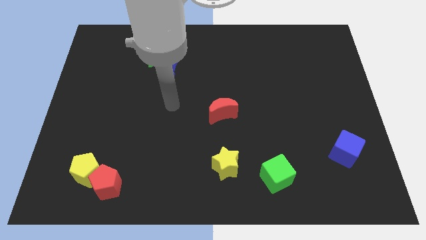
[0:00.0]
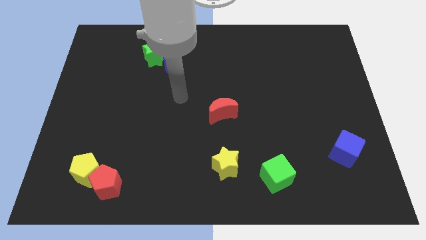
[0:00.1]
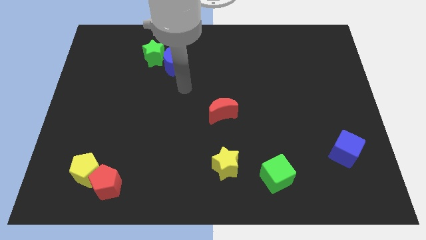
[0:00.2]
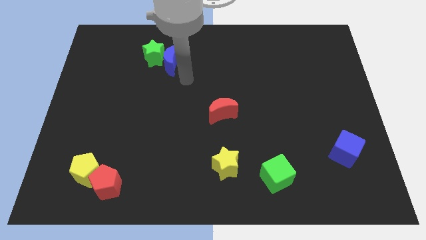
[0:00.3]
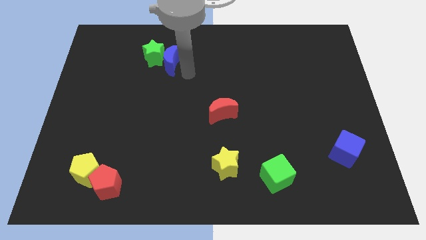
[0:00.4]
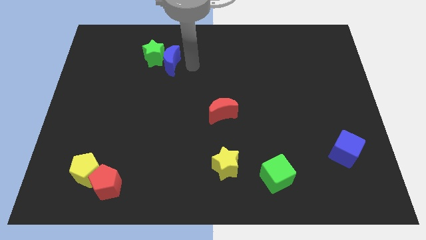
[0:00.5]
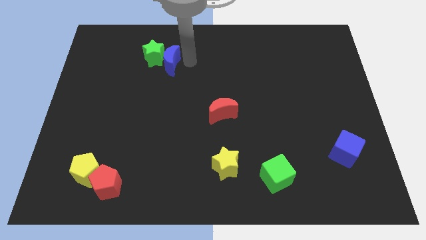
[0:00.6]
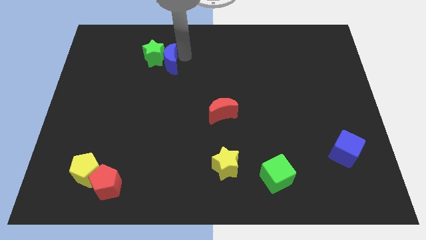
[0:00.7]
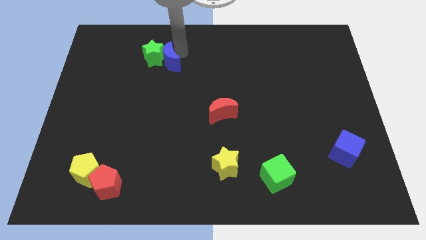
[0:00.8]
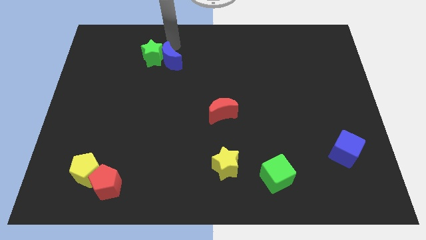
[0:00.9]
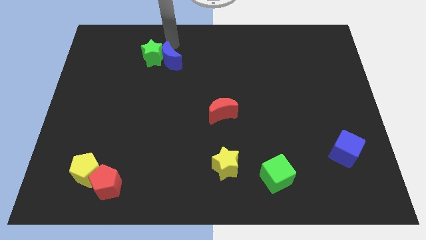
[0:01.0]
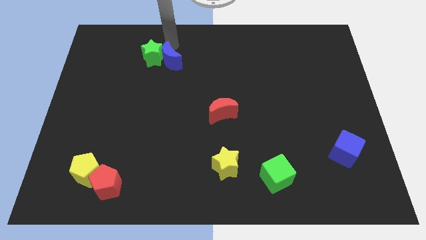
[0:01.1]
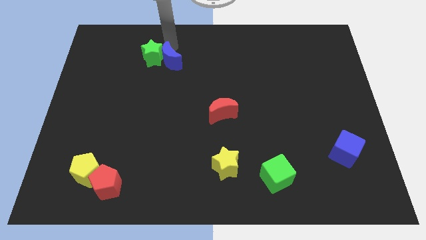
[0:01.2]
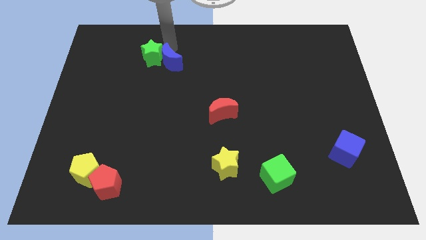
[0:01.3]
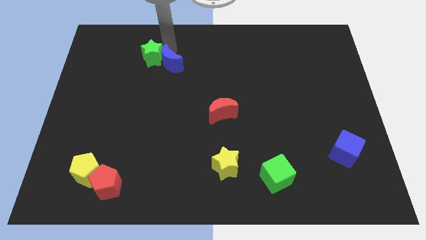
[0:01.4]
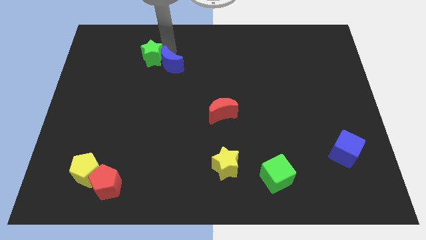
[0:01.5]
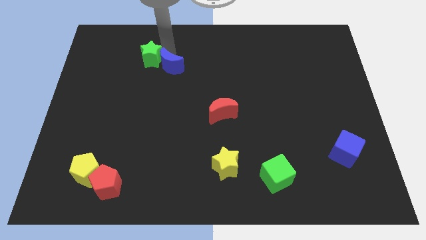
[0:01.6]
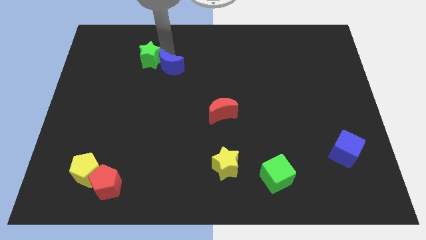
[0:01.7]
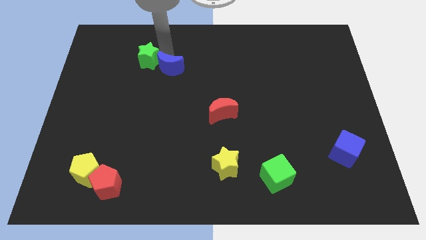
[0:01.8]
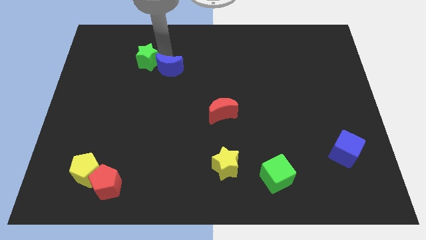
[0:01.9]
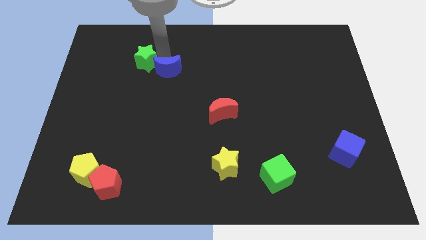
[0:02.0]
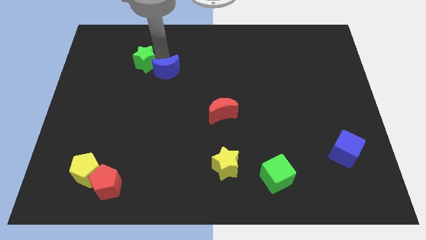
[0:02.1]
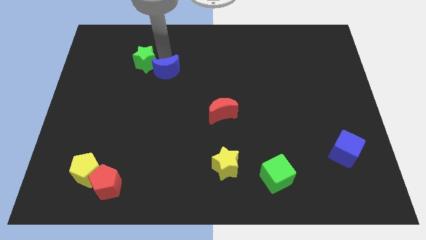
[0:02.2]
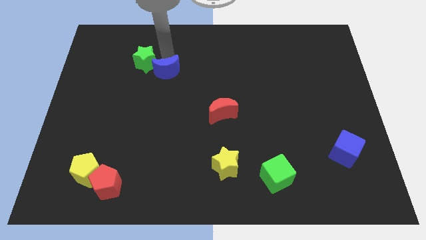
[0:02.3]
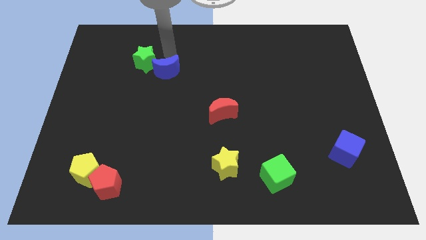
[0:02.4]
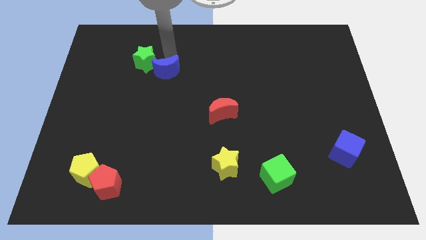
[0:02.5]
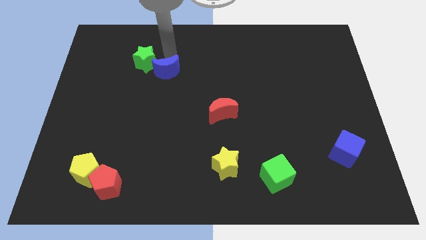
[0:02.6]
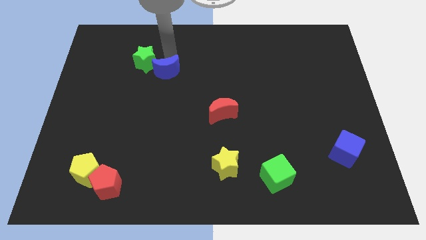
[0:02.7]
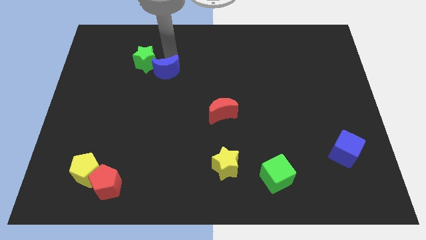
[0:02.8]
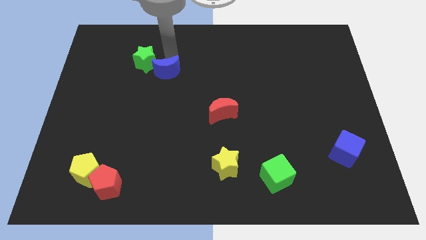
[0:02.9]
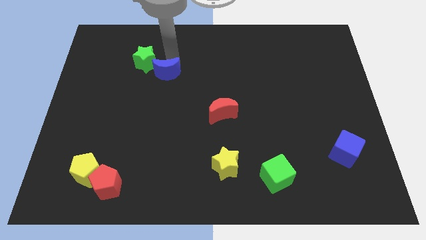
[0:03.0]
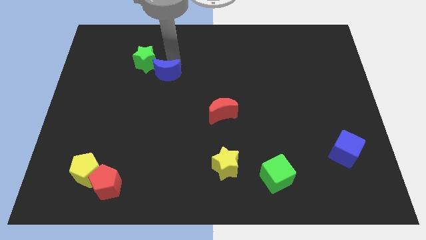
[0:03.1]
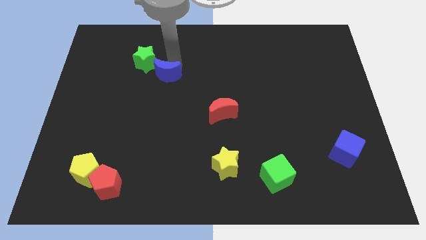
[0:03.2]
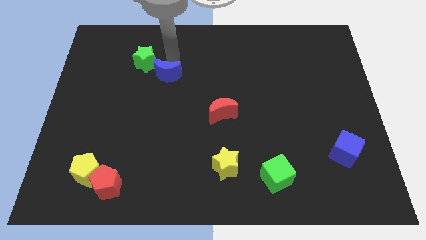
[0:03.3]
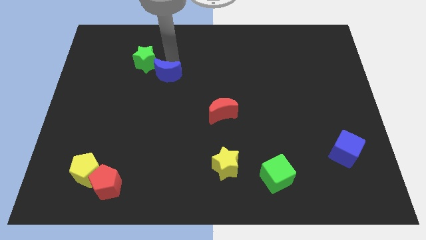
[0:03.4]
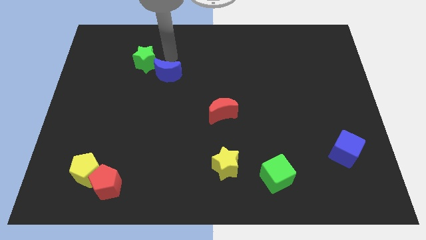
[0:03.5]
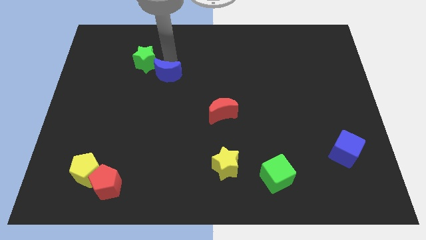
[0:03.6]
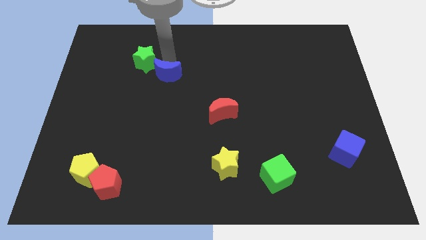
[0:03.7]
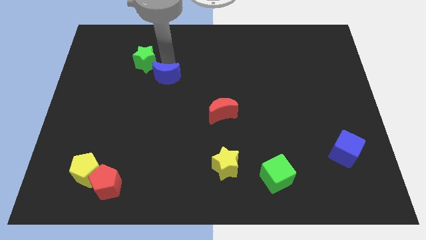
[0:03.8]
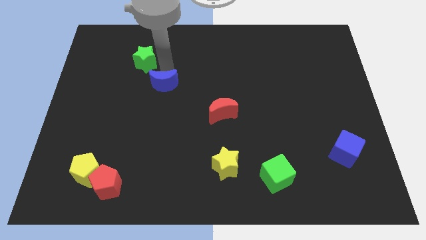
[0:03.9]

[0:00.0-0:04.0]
push the blue moon downwards somewhat

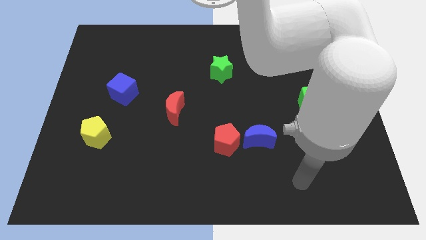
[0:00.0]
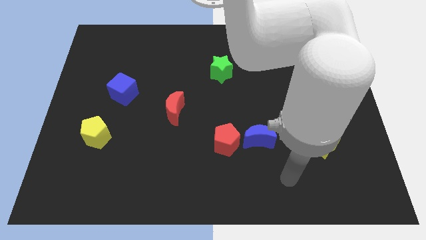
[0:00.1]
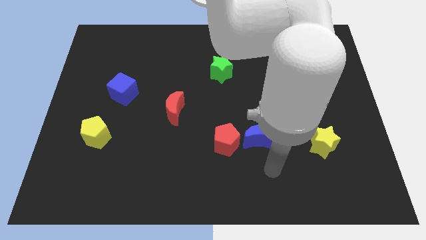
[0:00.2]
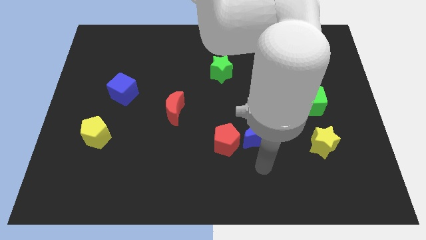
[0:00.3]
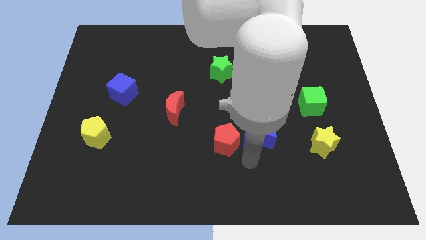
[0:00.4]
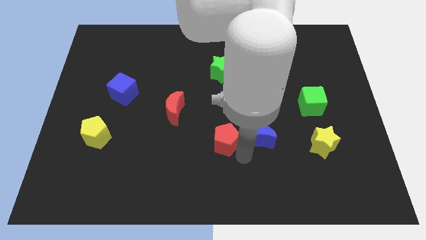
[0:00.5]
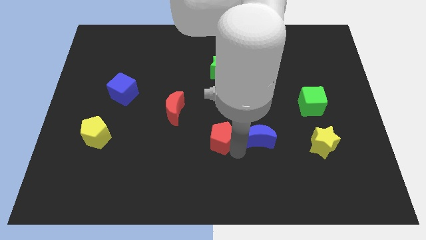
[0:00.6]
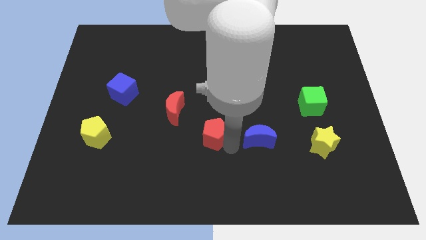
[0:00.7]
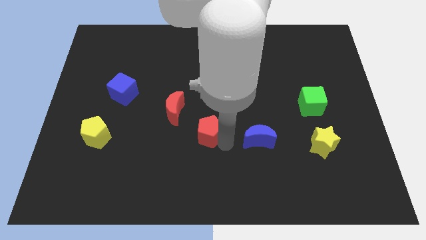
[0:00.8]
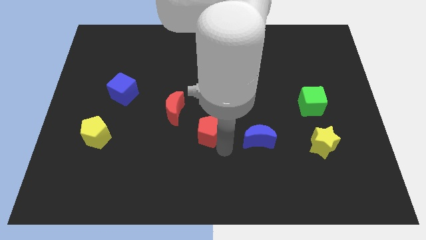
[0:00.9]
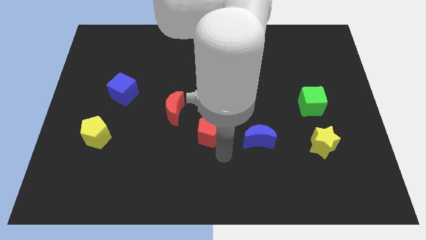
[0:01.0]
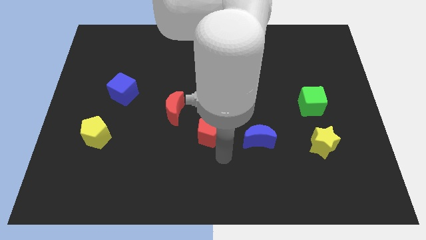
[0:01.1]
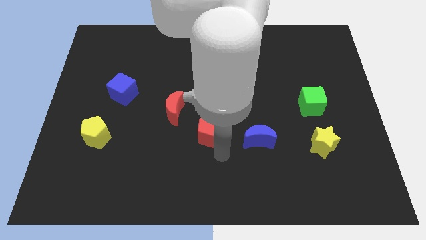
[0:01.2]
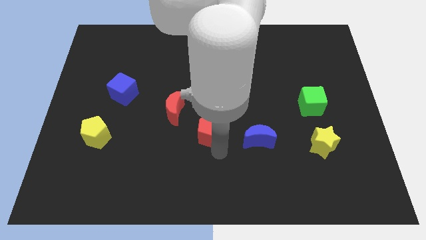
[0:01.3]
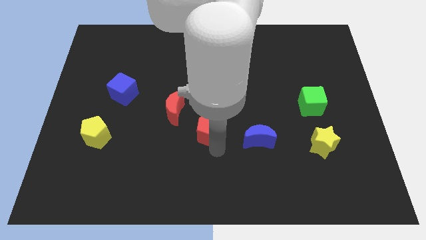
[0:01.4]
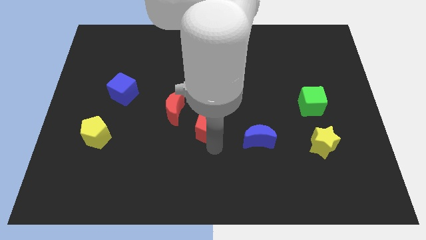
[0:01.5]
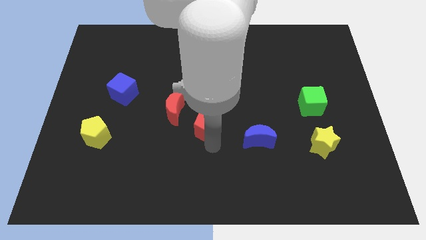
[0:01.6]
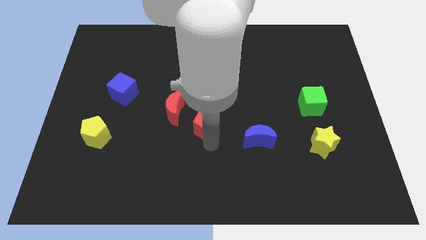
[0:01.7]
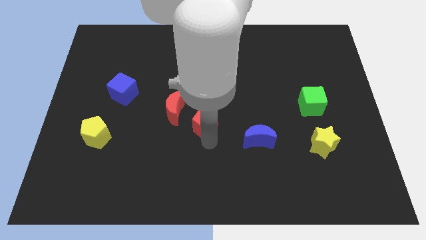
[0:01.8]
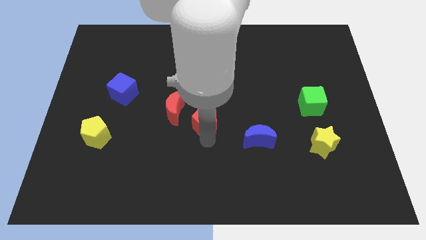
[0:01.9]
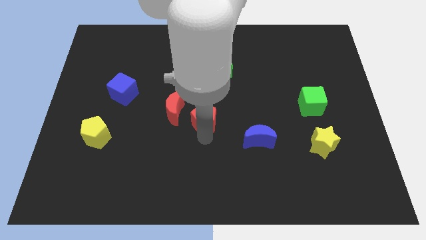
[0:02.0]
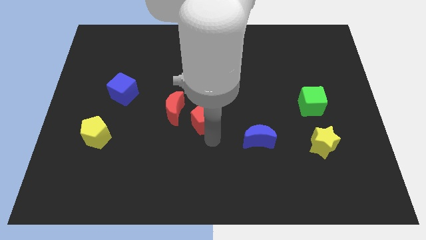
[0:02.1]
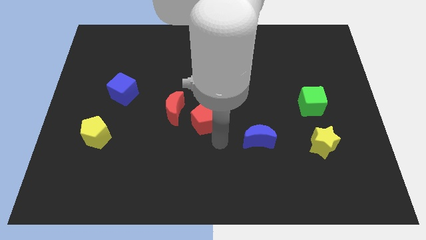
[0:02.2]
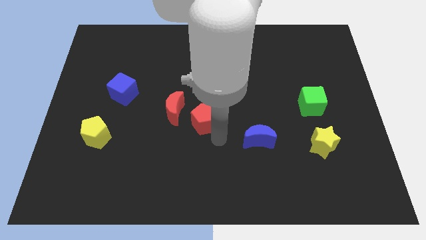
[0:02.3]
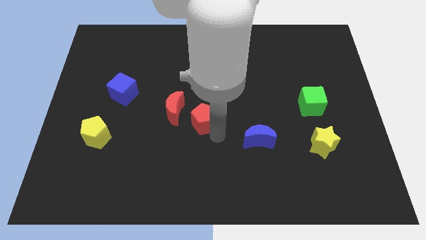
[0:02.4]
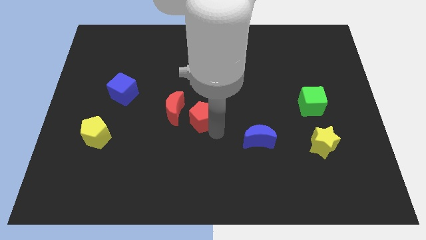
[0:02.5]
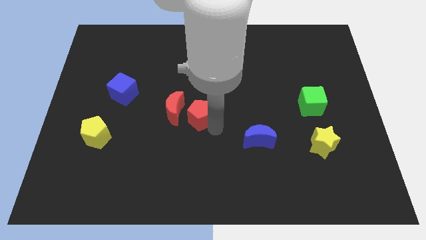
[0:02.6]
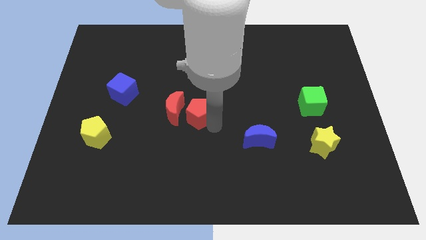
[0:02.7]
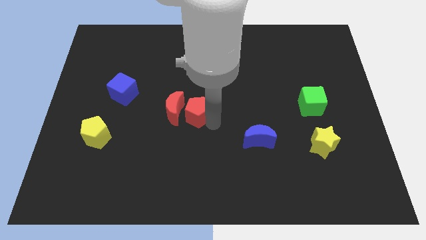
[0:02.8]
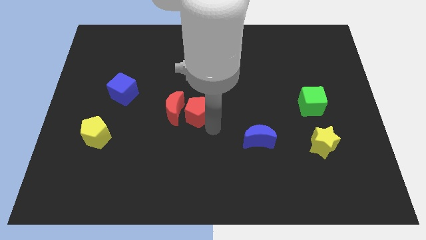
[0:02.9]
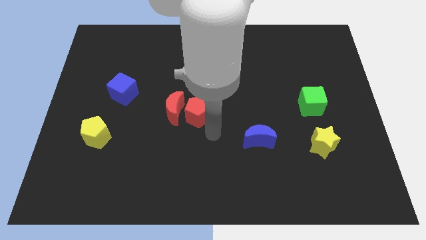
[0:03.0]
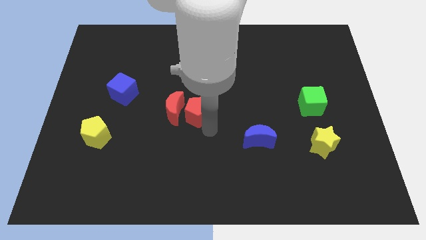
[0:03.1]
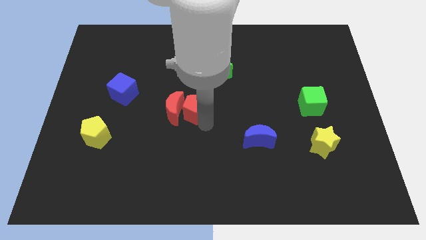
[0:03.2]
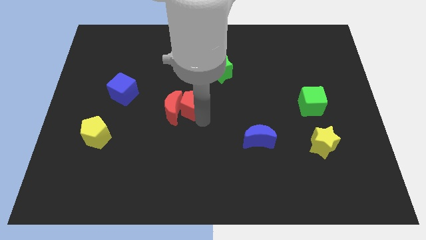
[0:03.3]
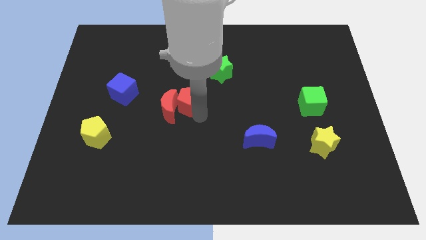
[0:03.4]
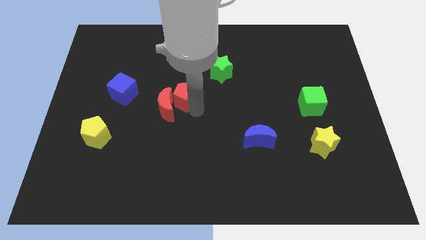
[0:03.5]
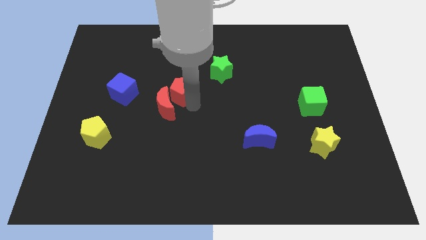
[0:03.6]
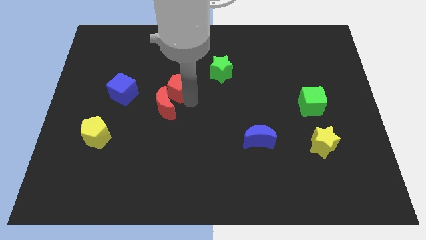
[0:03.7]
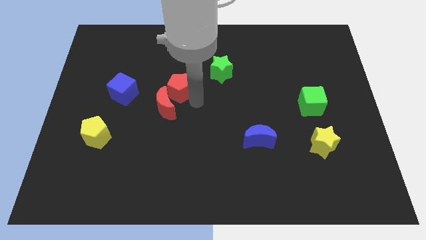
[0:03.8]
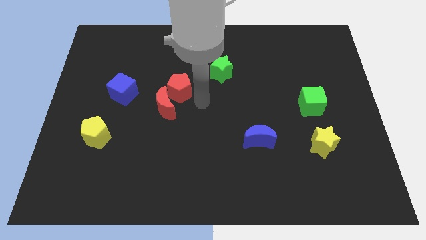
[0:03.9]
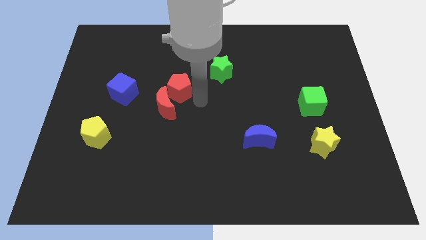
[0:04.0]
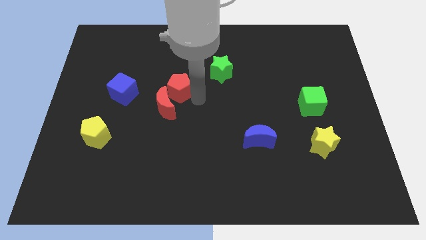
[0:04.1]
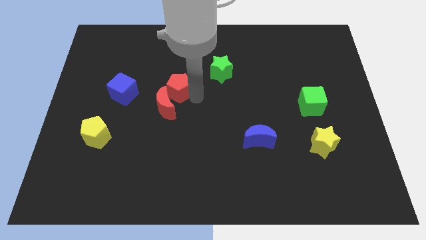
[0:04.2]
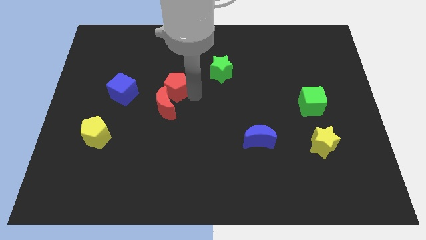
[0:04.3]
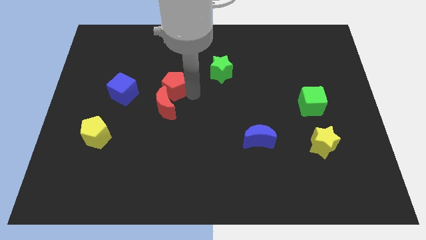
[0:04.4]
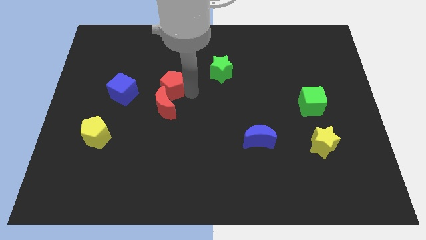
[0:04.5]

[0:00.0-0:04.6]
push the red pentagon upwards and then to the left
